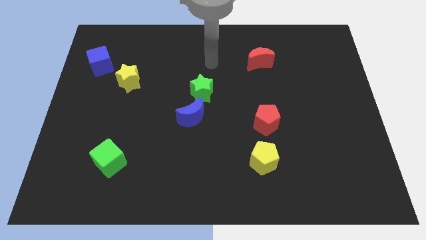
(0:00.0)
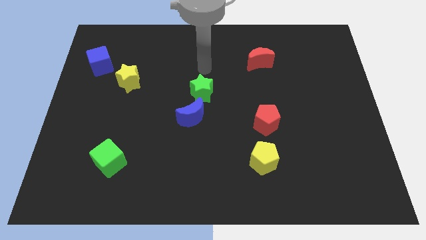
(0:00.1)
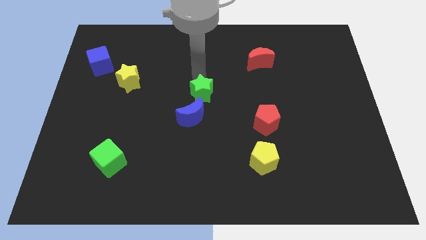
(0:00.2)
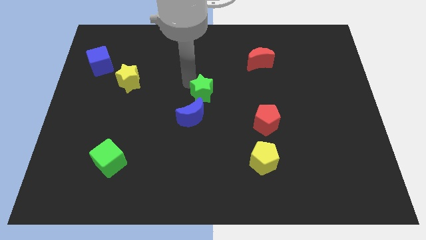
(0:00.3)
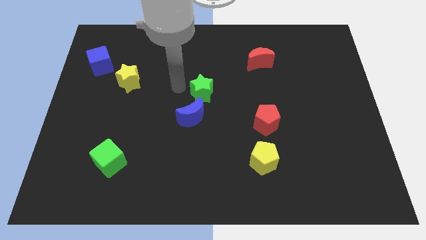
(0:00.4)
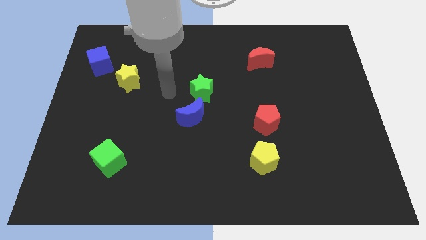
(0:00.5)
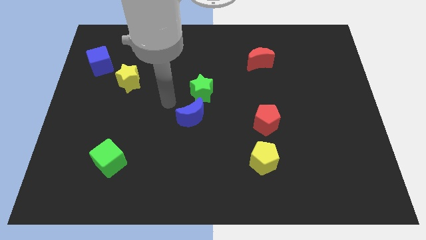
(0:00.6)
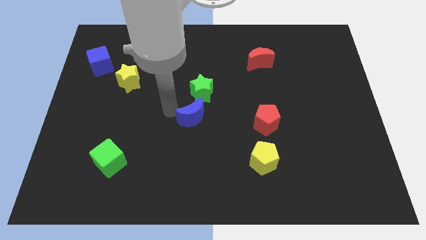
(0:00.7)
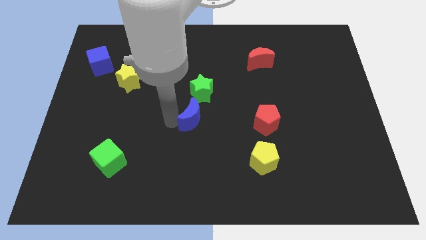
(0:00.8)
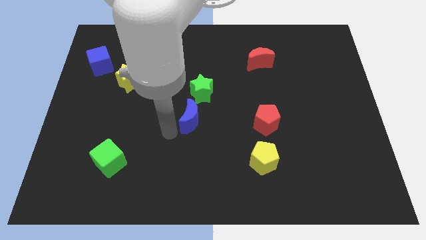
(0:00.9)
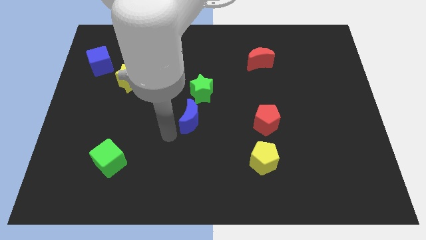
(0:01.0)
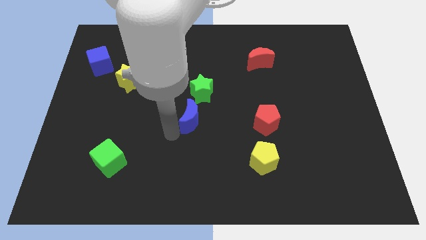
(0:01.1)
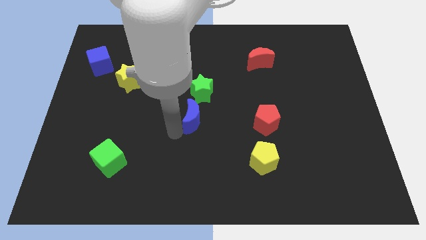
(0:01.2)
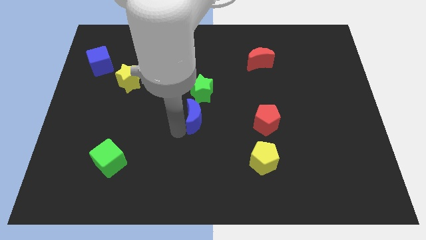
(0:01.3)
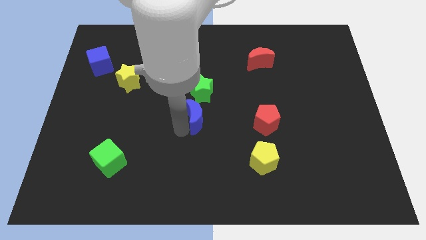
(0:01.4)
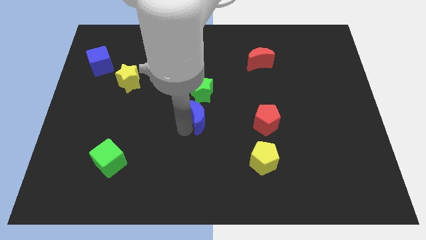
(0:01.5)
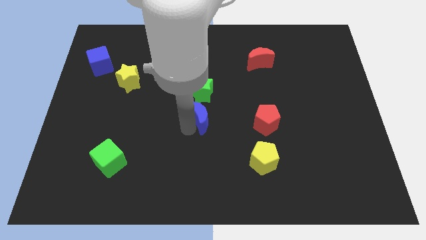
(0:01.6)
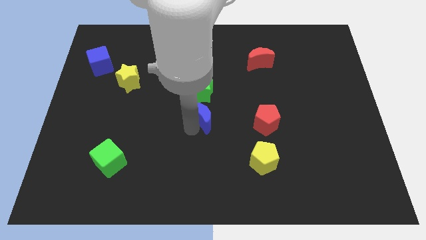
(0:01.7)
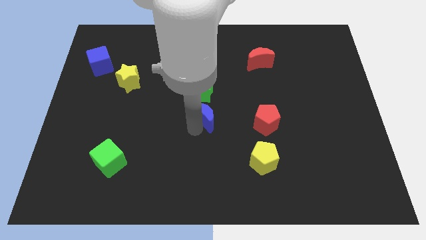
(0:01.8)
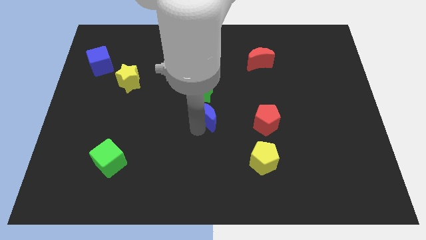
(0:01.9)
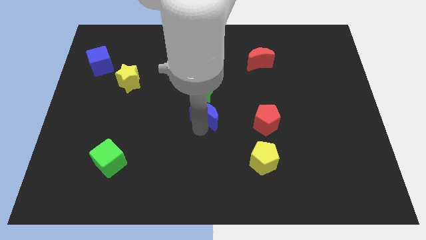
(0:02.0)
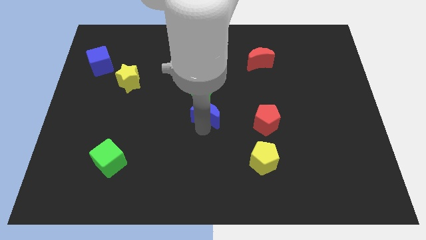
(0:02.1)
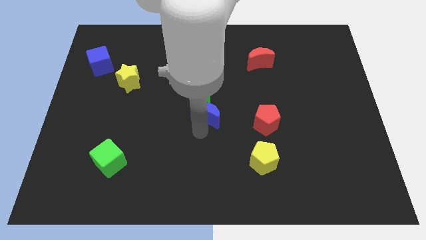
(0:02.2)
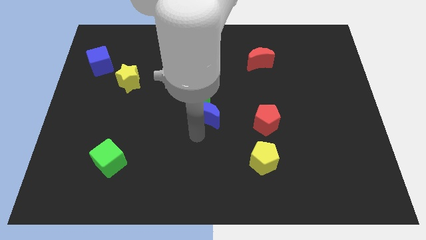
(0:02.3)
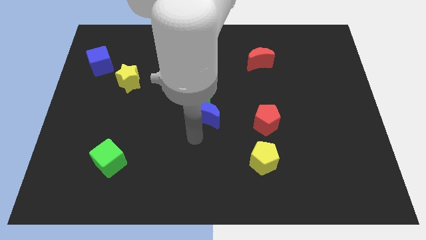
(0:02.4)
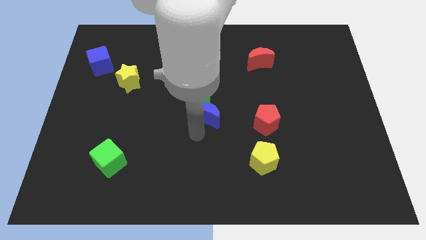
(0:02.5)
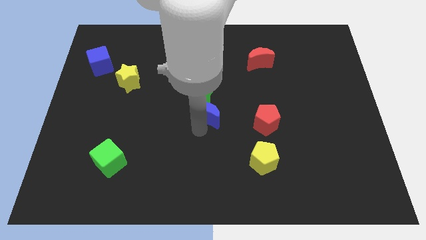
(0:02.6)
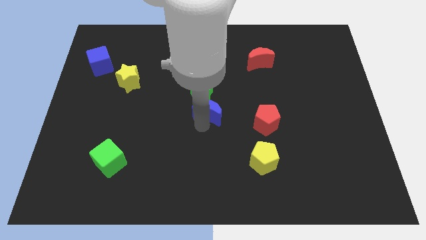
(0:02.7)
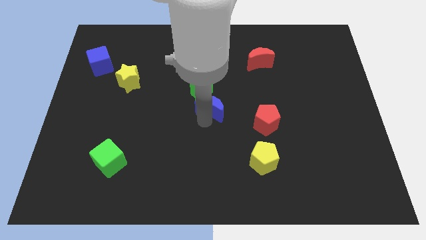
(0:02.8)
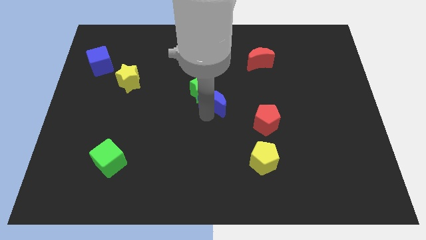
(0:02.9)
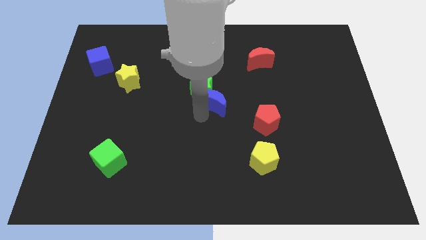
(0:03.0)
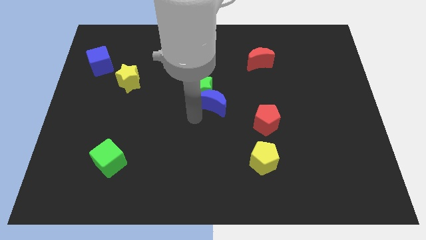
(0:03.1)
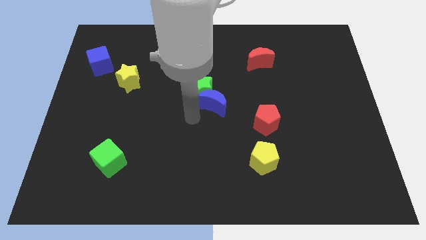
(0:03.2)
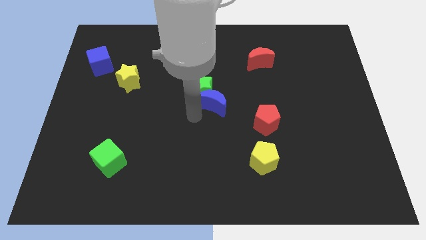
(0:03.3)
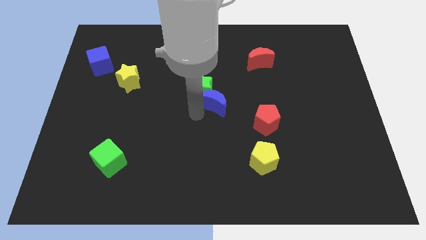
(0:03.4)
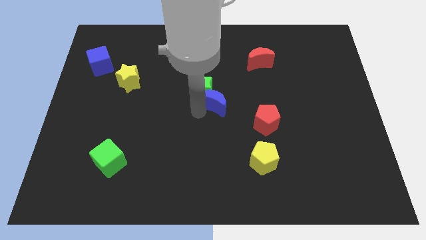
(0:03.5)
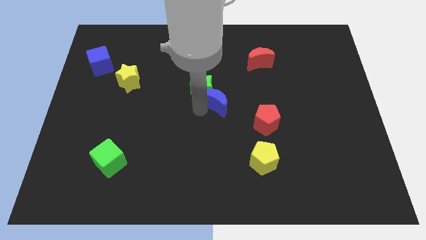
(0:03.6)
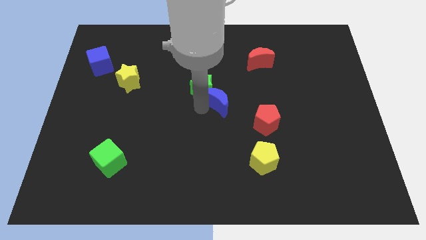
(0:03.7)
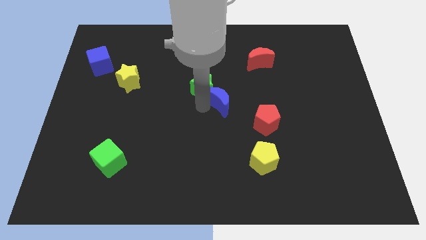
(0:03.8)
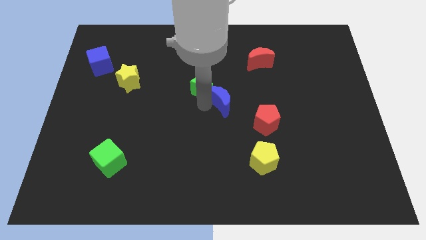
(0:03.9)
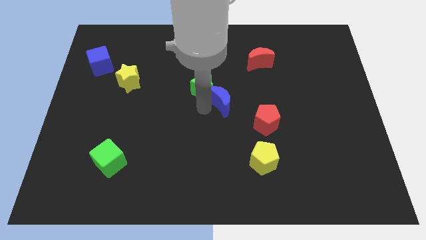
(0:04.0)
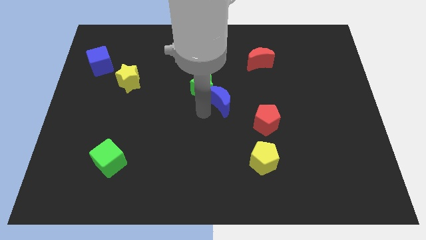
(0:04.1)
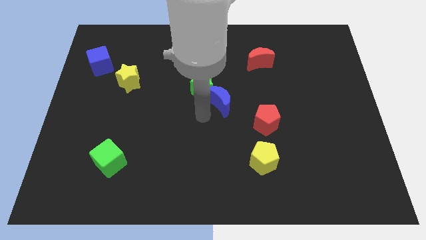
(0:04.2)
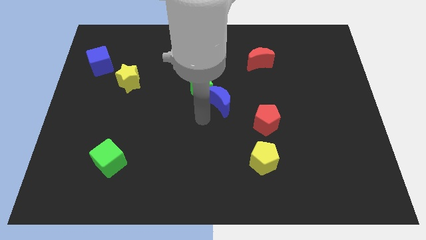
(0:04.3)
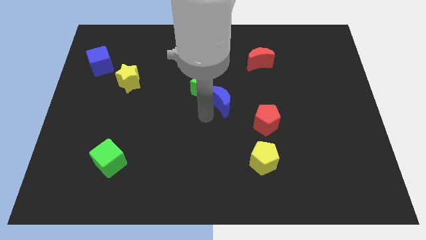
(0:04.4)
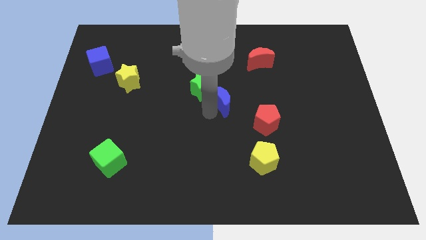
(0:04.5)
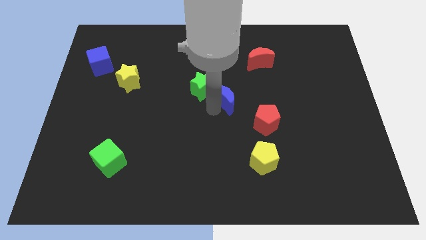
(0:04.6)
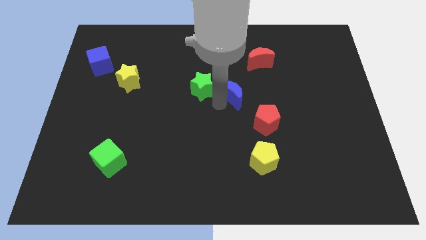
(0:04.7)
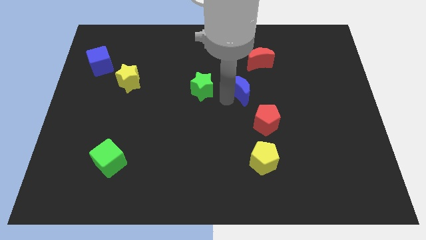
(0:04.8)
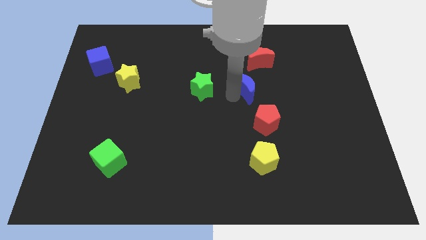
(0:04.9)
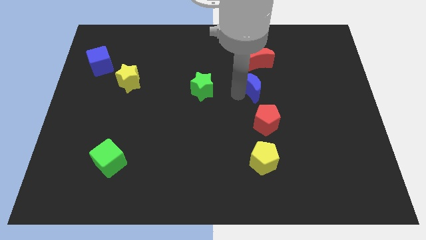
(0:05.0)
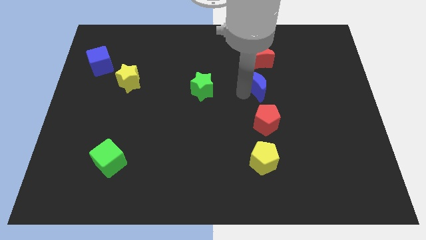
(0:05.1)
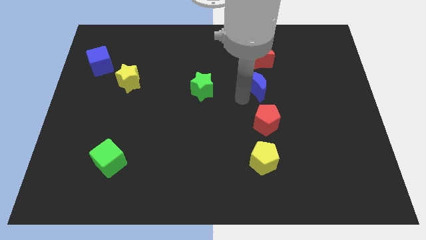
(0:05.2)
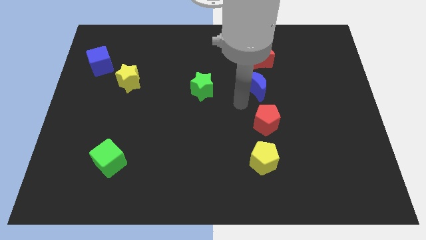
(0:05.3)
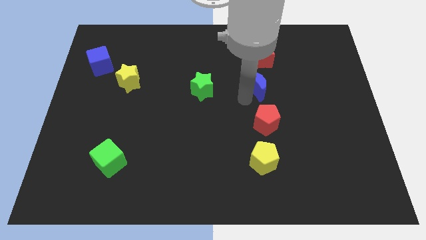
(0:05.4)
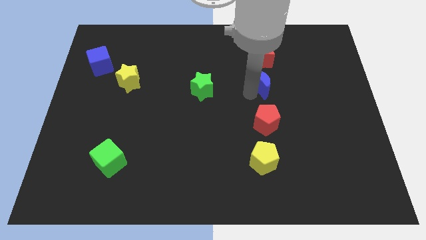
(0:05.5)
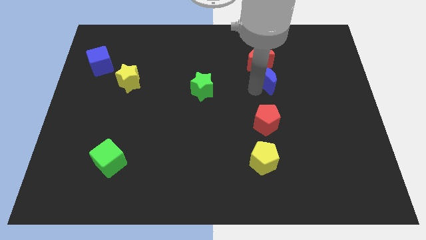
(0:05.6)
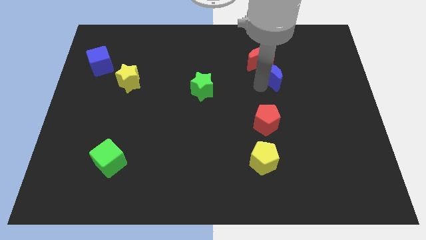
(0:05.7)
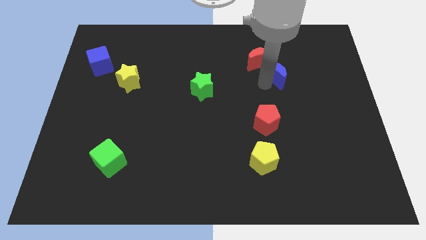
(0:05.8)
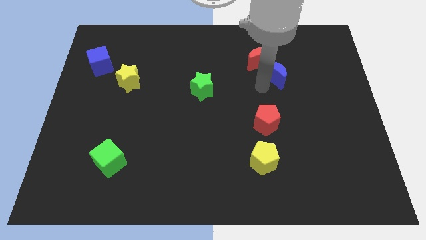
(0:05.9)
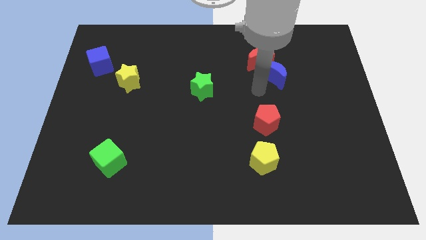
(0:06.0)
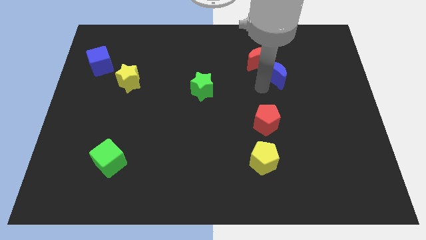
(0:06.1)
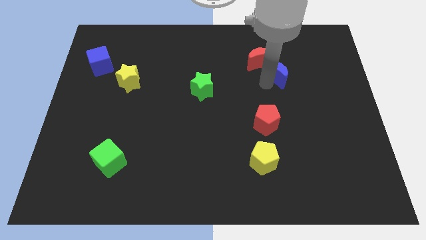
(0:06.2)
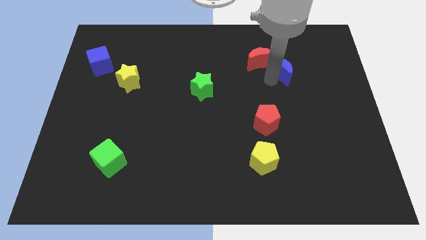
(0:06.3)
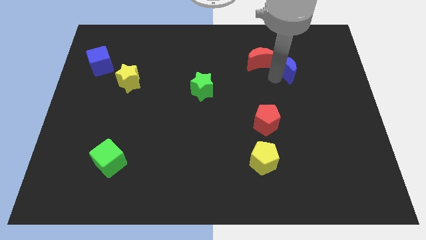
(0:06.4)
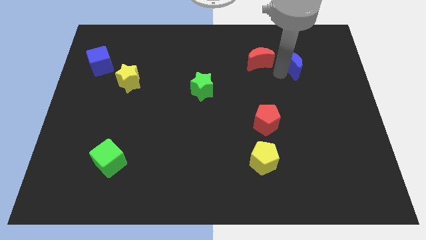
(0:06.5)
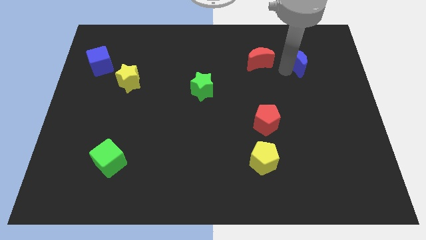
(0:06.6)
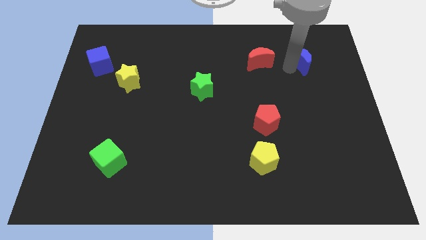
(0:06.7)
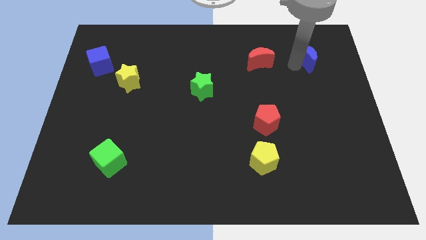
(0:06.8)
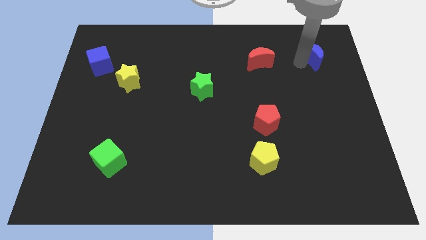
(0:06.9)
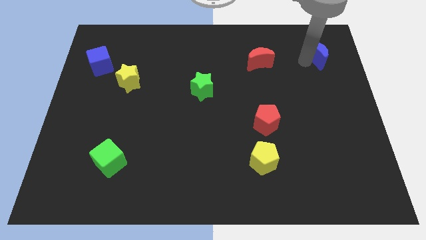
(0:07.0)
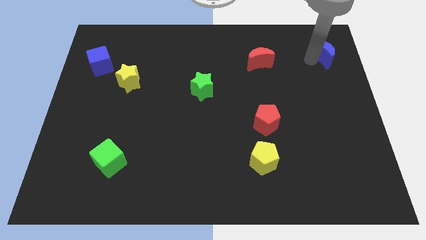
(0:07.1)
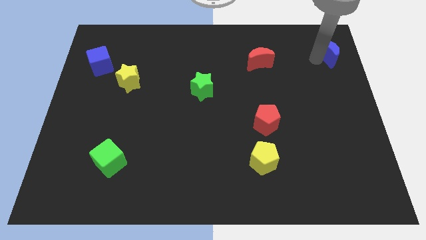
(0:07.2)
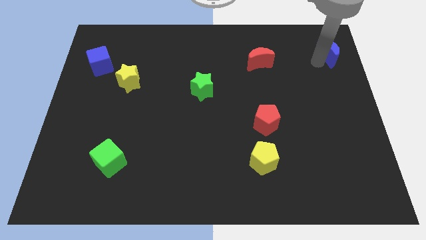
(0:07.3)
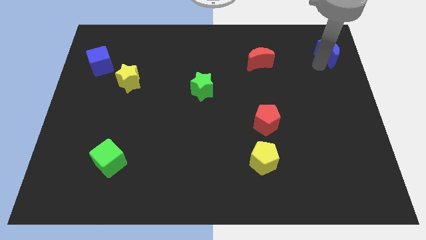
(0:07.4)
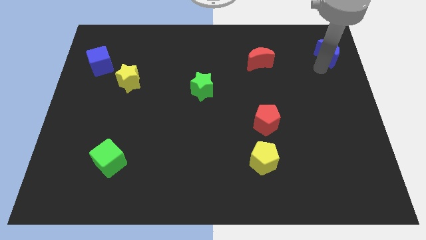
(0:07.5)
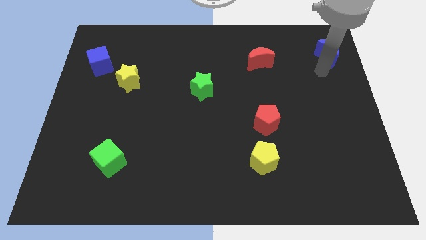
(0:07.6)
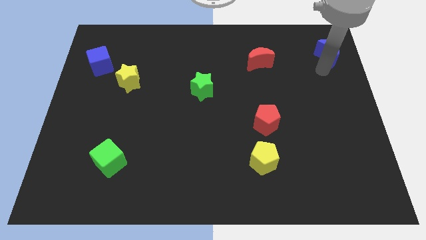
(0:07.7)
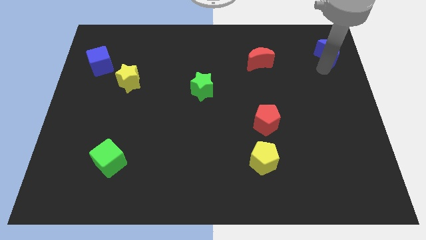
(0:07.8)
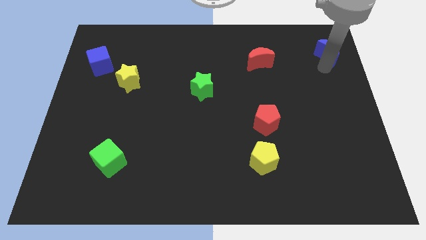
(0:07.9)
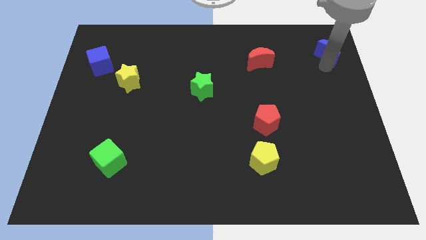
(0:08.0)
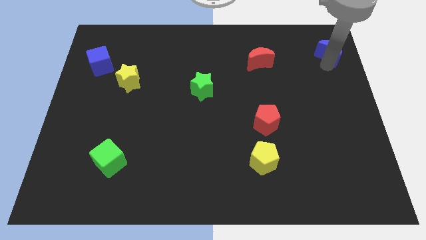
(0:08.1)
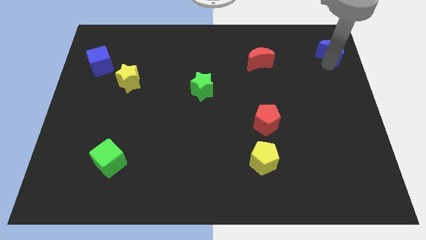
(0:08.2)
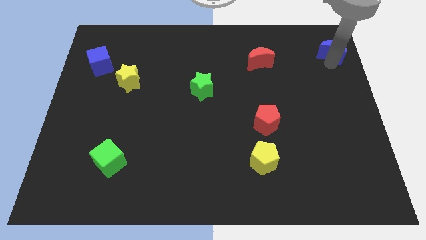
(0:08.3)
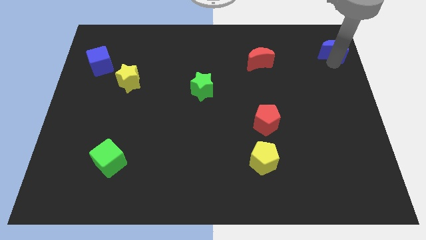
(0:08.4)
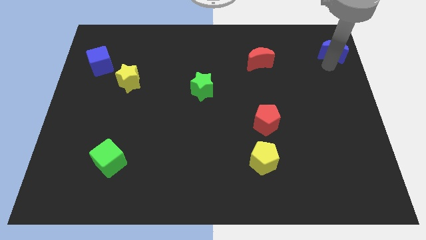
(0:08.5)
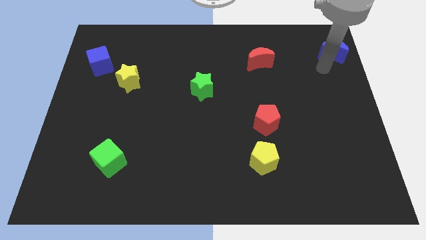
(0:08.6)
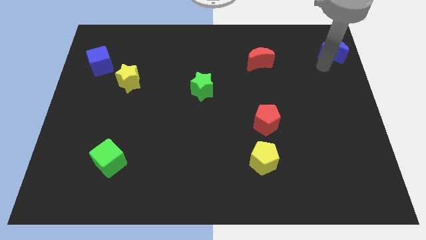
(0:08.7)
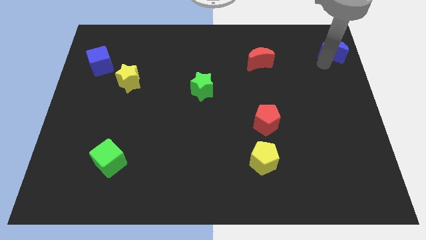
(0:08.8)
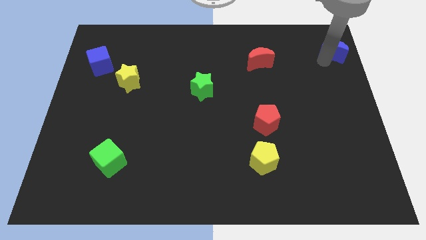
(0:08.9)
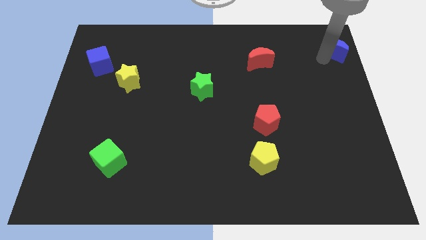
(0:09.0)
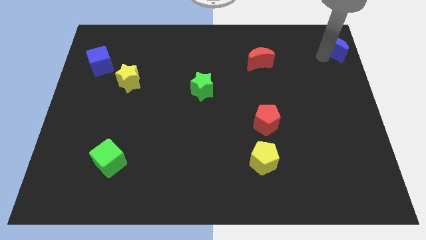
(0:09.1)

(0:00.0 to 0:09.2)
slide the blue moon to the top right
